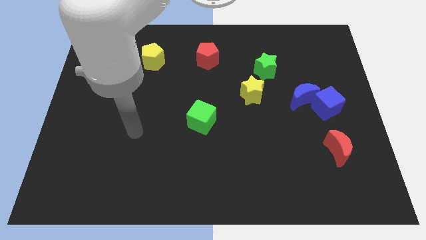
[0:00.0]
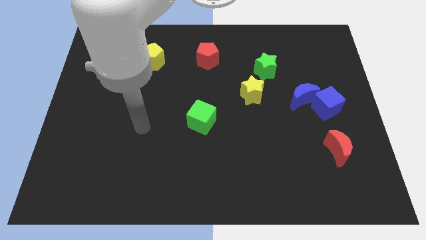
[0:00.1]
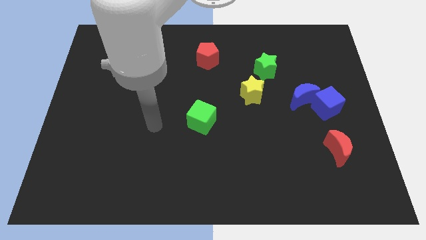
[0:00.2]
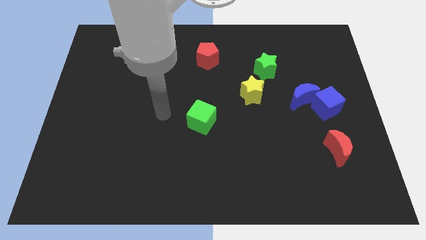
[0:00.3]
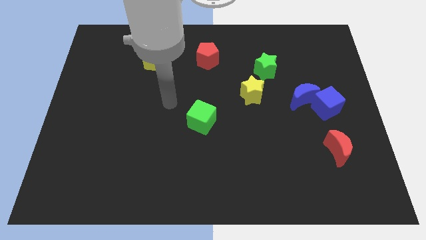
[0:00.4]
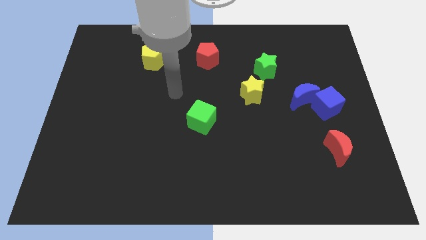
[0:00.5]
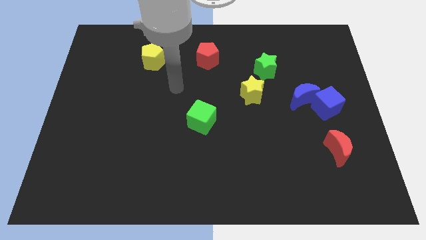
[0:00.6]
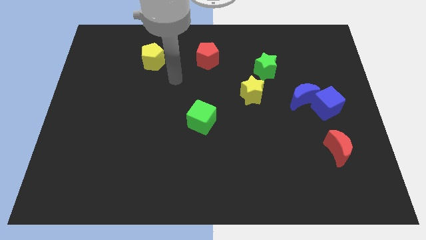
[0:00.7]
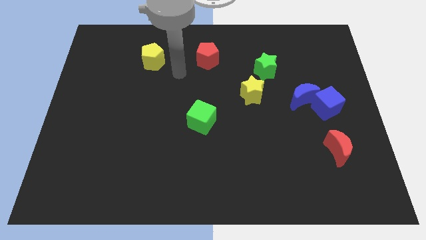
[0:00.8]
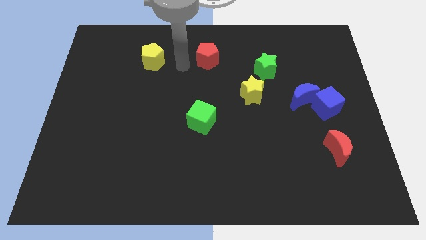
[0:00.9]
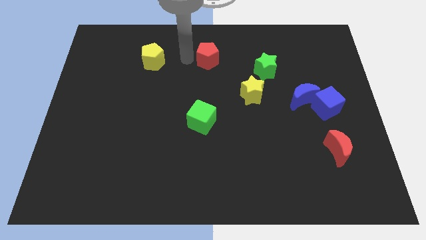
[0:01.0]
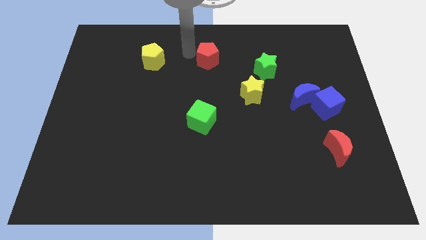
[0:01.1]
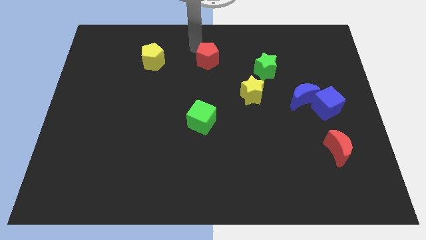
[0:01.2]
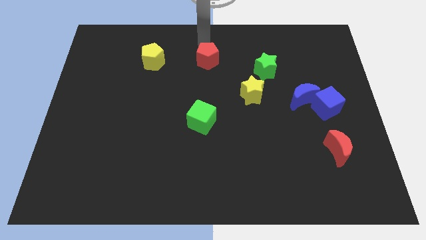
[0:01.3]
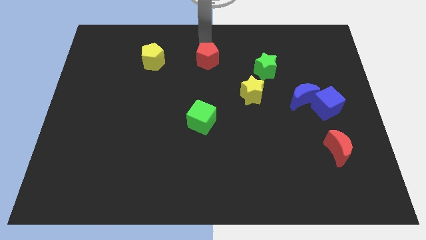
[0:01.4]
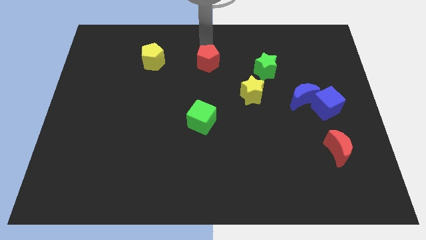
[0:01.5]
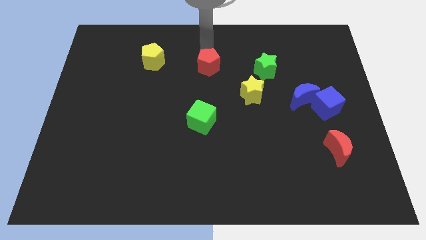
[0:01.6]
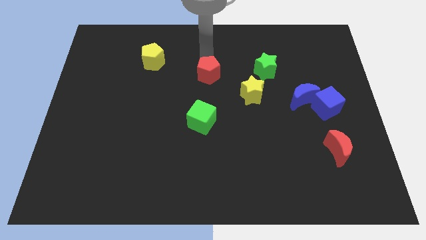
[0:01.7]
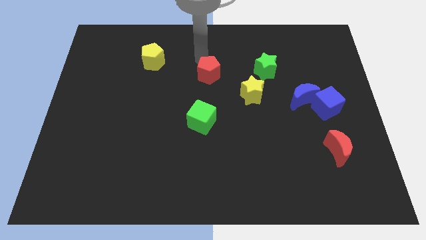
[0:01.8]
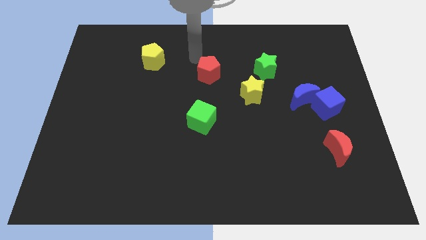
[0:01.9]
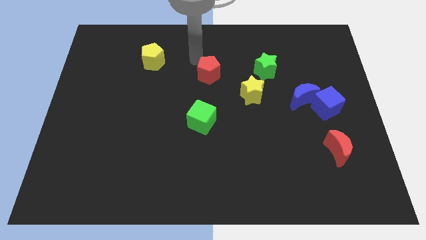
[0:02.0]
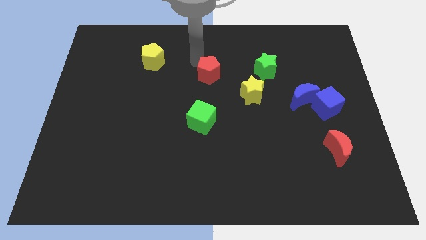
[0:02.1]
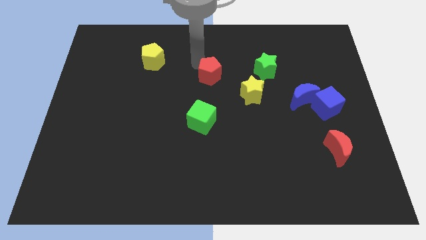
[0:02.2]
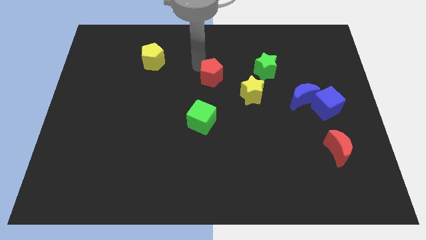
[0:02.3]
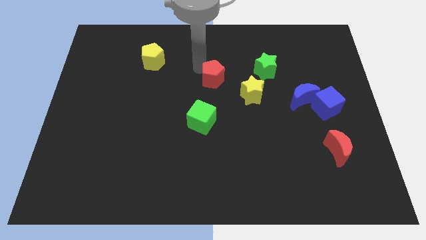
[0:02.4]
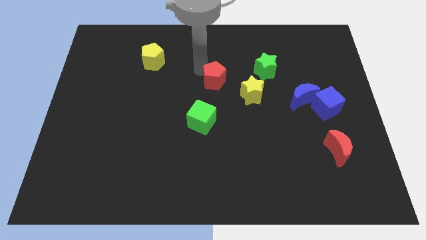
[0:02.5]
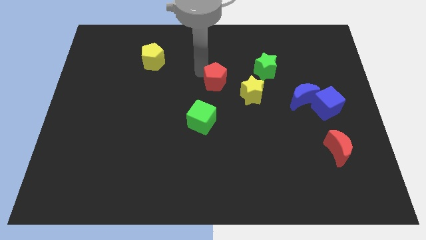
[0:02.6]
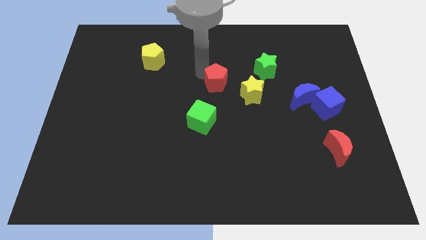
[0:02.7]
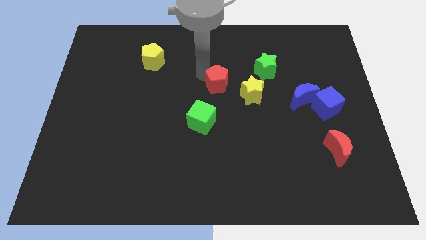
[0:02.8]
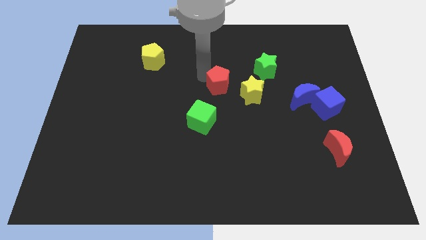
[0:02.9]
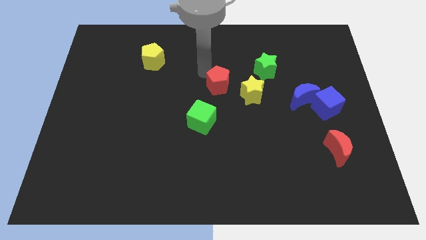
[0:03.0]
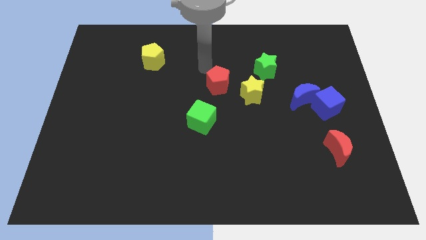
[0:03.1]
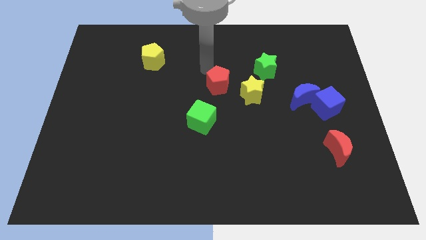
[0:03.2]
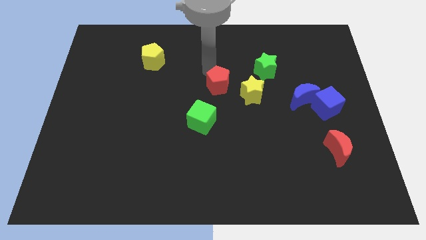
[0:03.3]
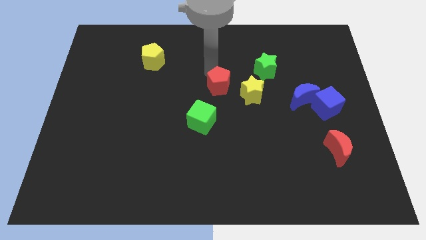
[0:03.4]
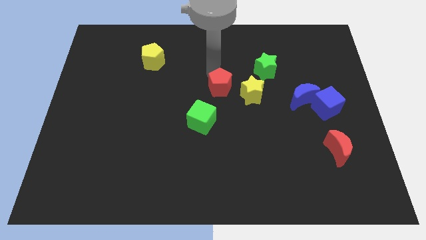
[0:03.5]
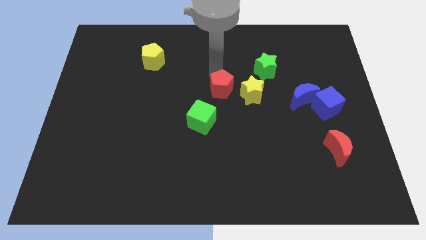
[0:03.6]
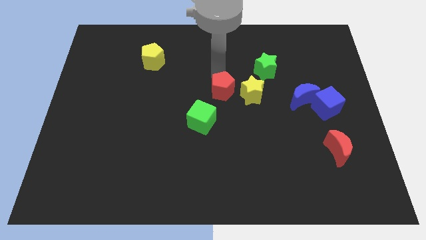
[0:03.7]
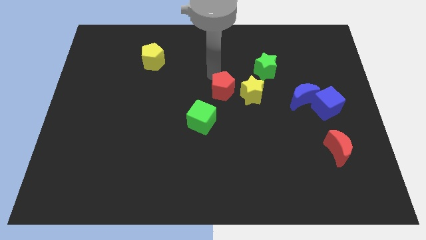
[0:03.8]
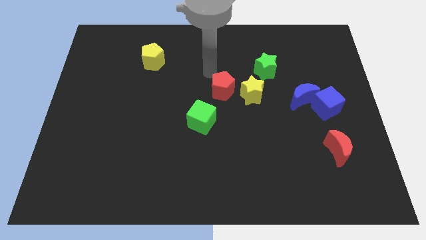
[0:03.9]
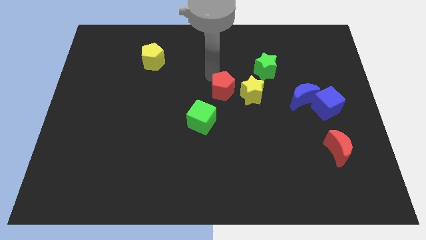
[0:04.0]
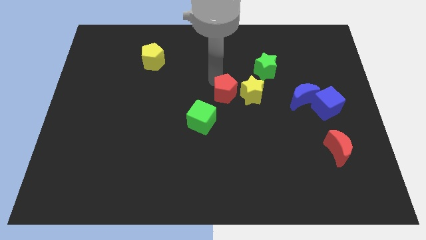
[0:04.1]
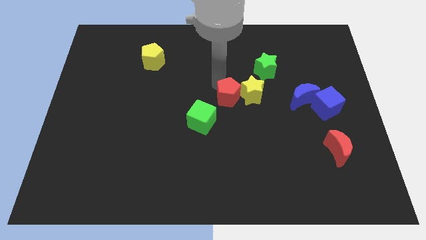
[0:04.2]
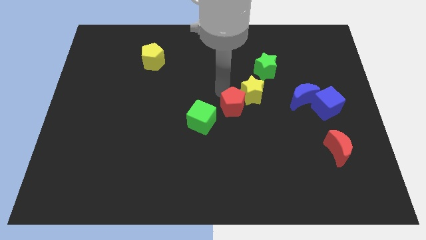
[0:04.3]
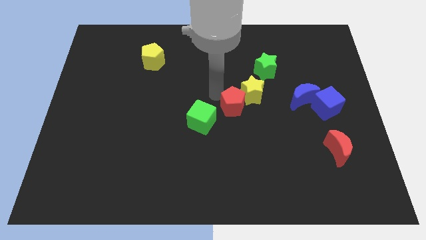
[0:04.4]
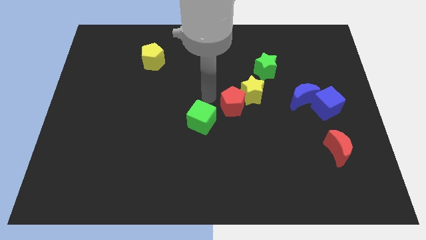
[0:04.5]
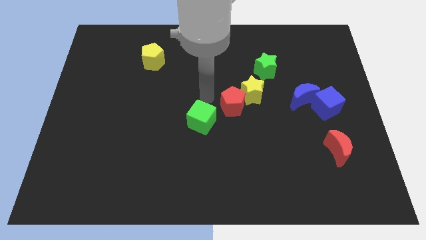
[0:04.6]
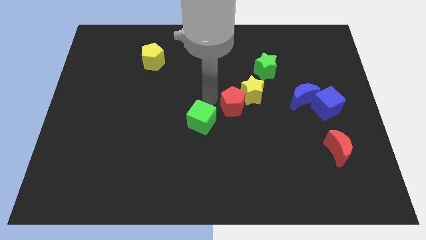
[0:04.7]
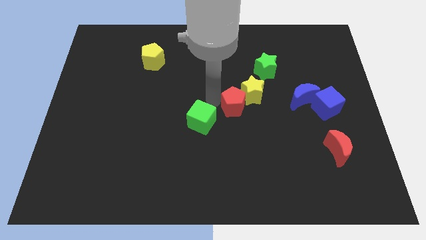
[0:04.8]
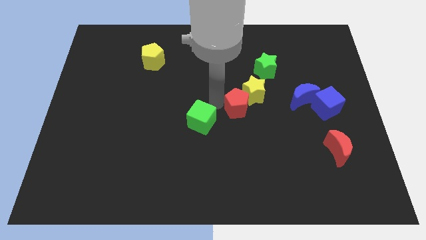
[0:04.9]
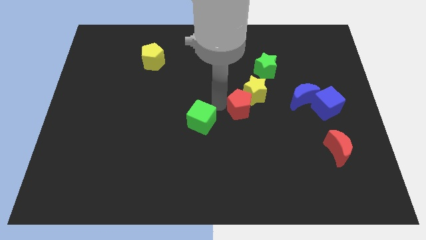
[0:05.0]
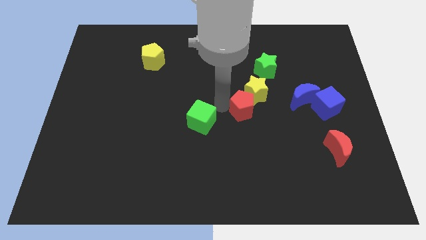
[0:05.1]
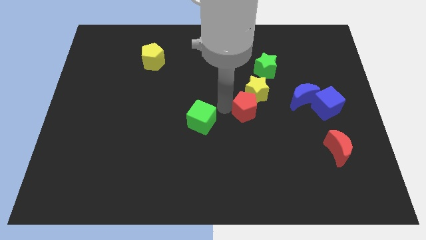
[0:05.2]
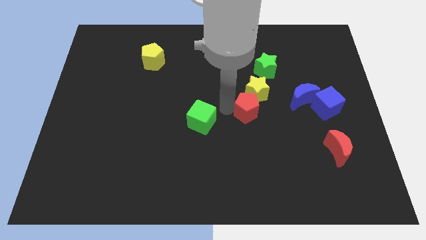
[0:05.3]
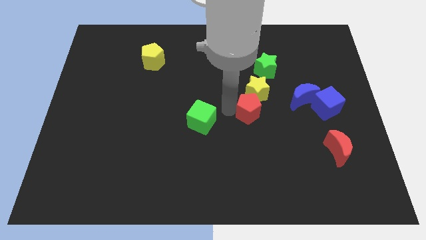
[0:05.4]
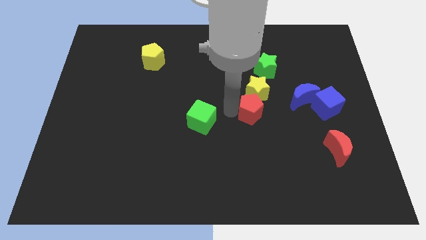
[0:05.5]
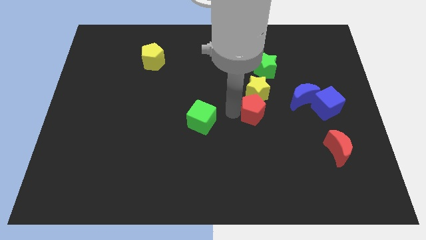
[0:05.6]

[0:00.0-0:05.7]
slide the red pentagon below the green star

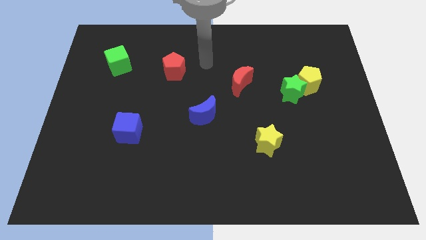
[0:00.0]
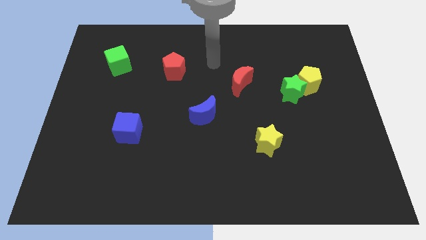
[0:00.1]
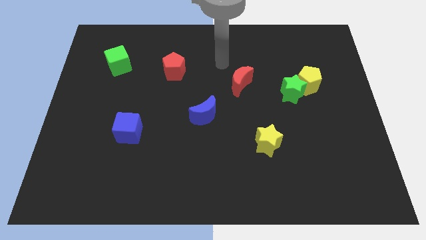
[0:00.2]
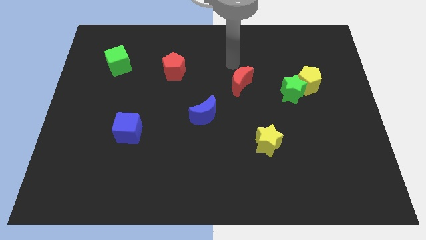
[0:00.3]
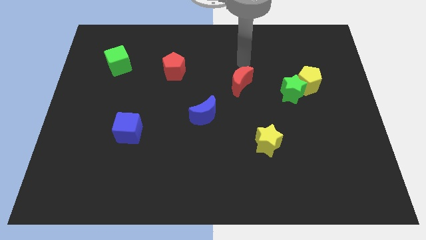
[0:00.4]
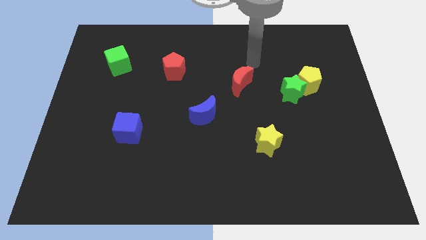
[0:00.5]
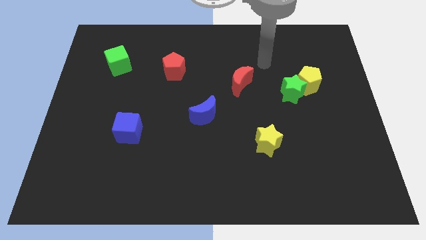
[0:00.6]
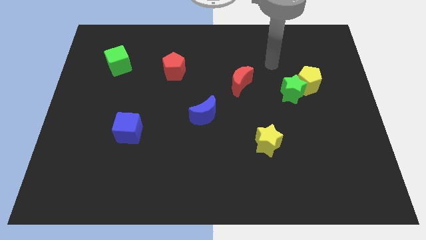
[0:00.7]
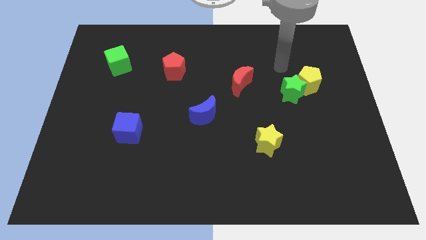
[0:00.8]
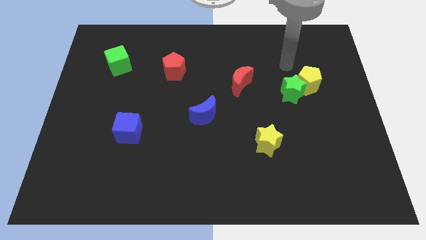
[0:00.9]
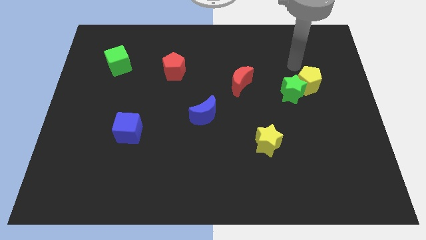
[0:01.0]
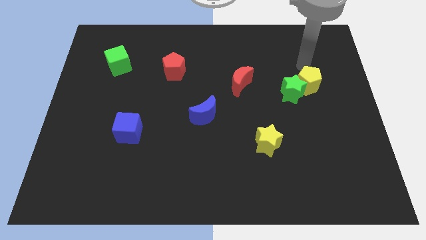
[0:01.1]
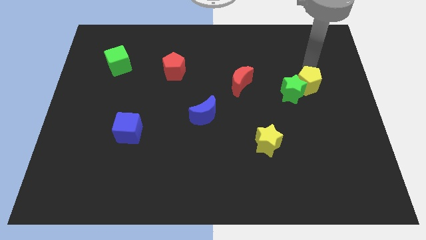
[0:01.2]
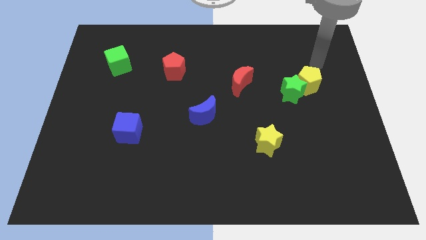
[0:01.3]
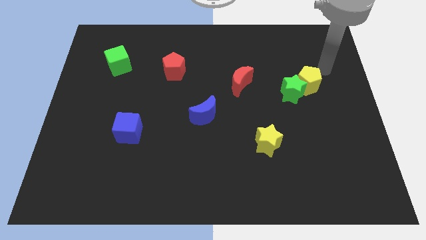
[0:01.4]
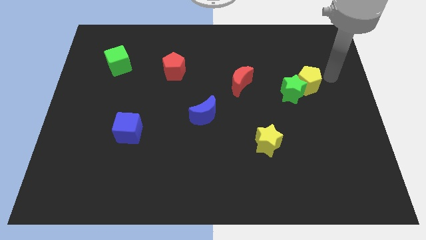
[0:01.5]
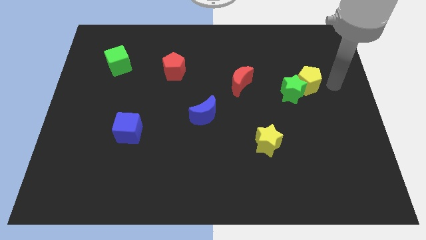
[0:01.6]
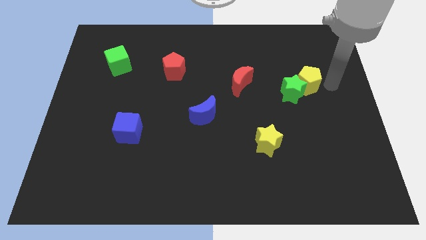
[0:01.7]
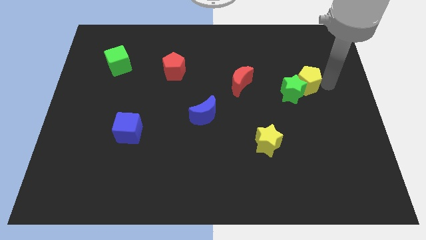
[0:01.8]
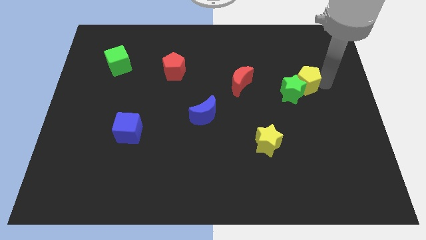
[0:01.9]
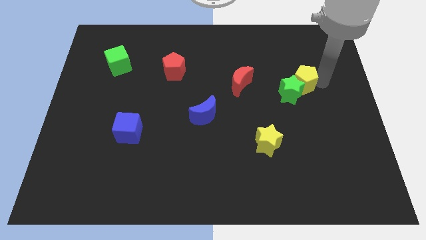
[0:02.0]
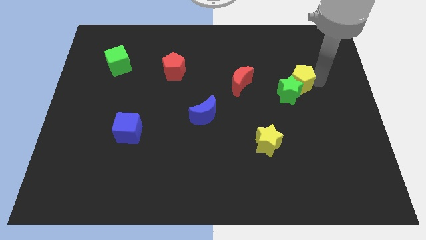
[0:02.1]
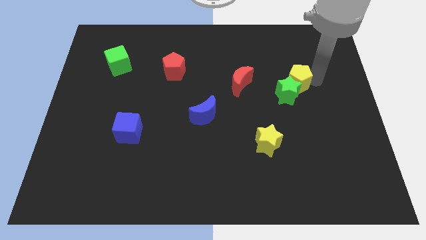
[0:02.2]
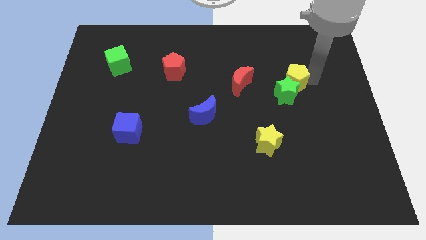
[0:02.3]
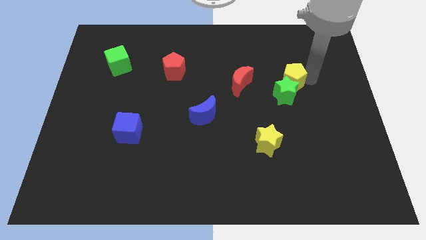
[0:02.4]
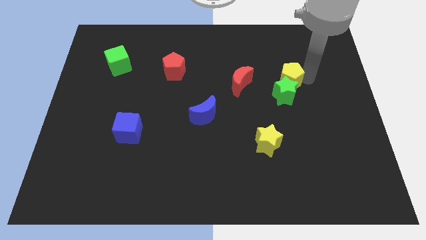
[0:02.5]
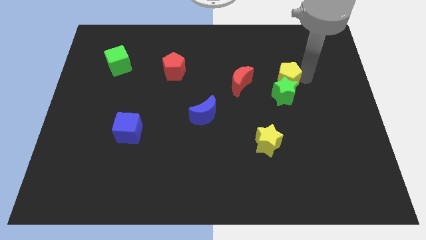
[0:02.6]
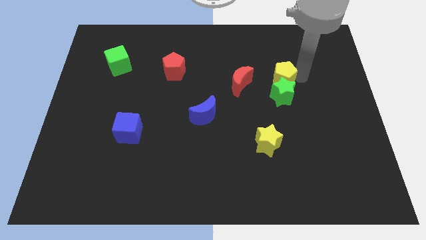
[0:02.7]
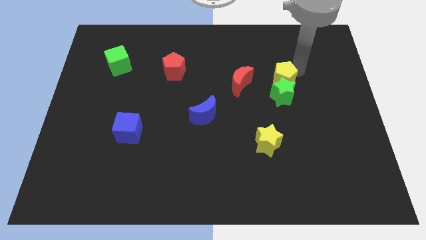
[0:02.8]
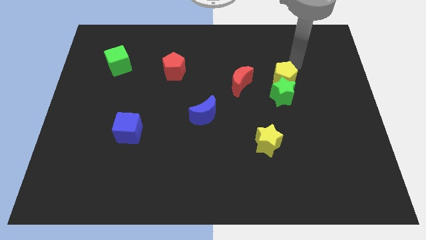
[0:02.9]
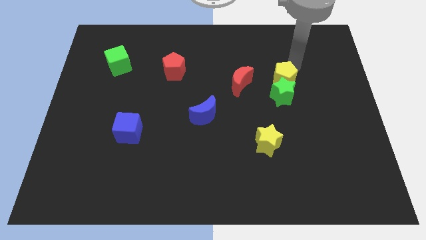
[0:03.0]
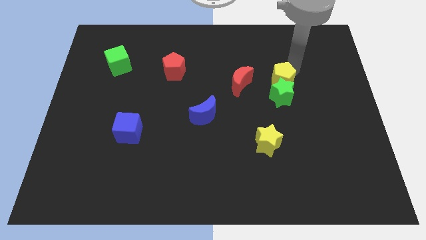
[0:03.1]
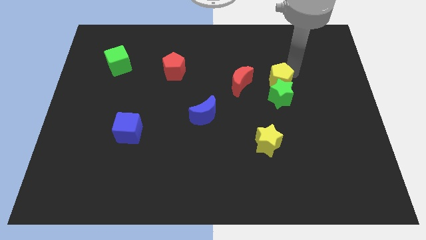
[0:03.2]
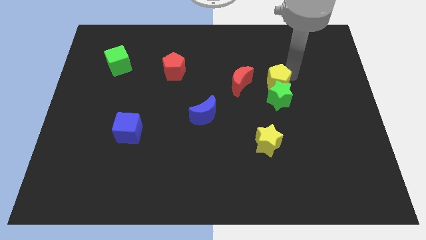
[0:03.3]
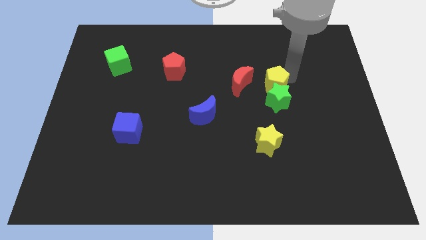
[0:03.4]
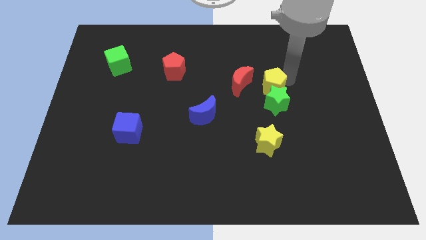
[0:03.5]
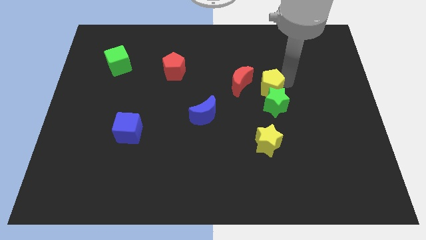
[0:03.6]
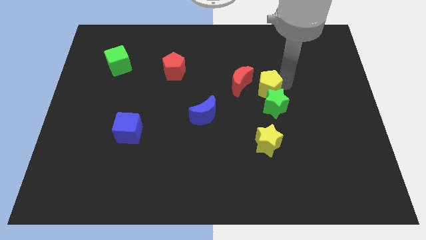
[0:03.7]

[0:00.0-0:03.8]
slide the yellow pentagon above the yellow star
